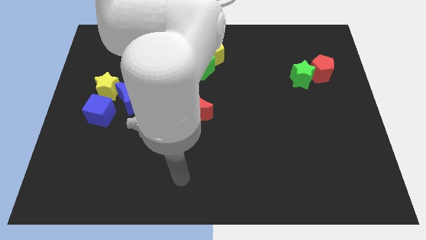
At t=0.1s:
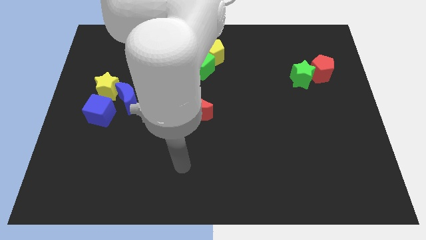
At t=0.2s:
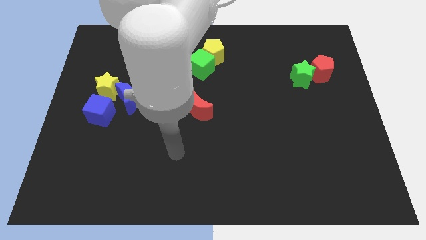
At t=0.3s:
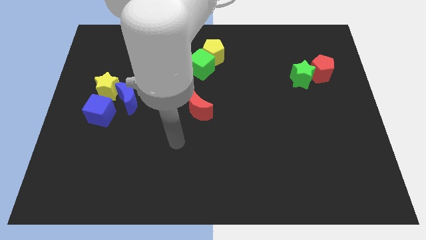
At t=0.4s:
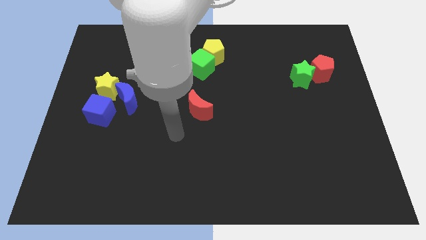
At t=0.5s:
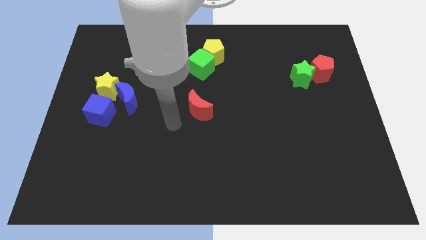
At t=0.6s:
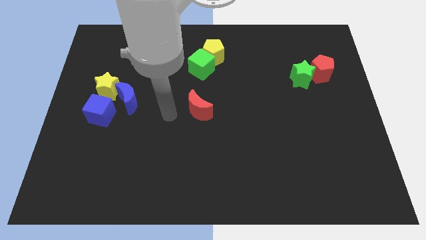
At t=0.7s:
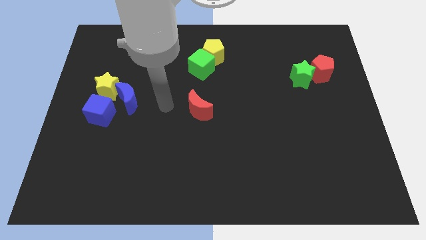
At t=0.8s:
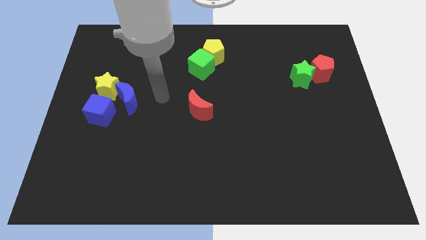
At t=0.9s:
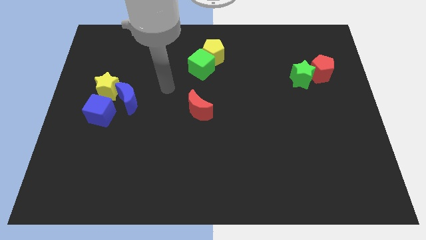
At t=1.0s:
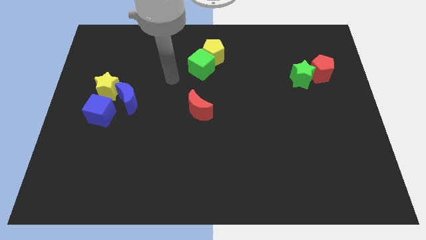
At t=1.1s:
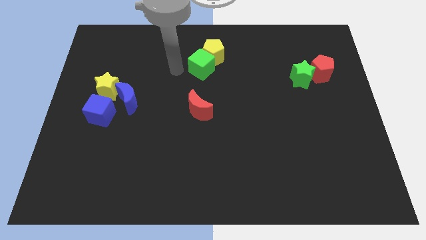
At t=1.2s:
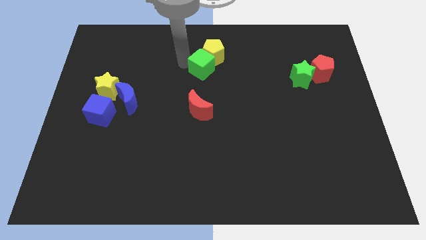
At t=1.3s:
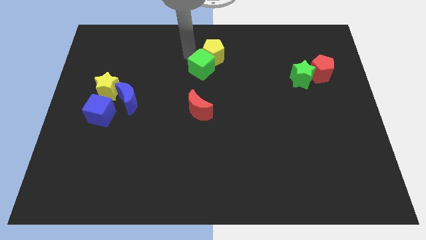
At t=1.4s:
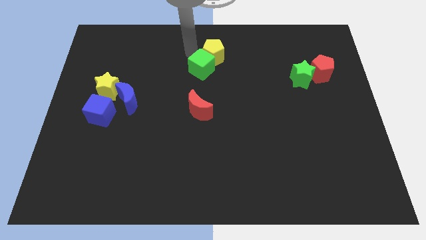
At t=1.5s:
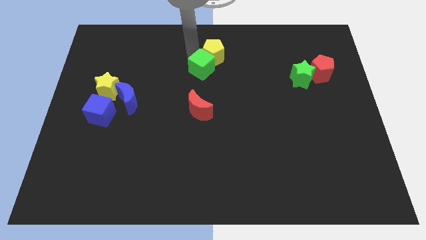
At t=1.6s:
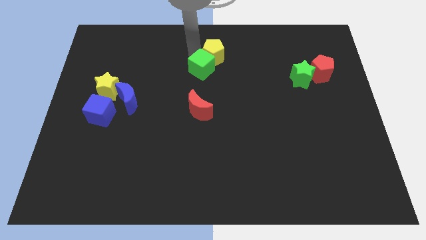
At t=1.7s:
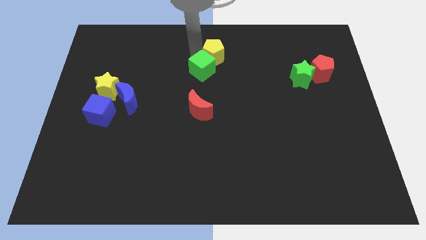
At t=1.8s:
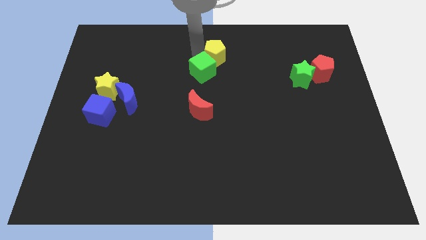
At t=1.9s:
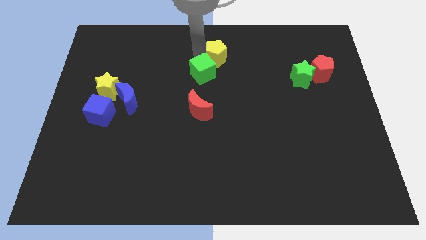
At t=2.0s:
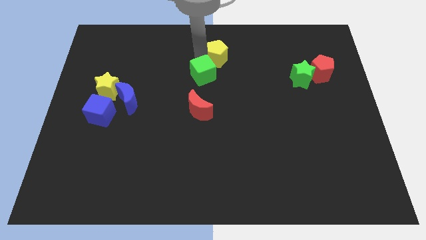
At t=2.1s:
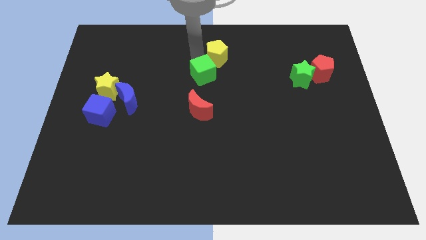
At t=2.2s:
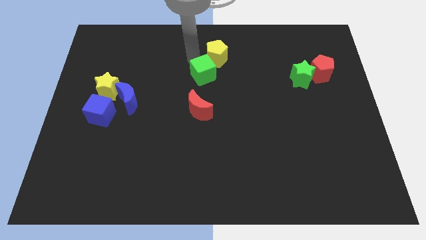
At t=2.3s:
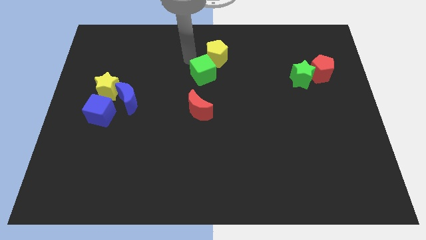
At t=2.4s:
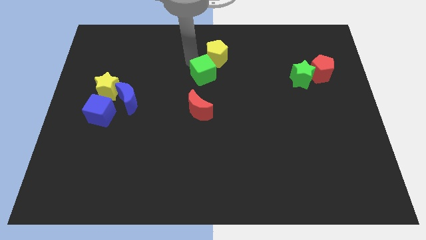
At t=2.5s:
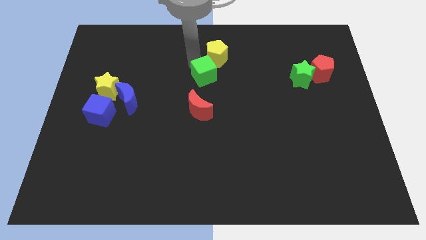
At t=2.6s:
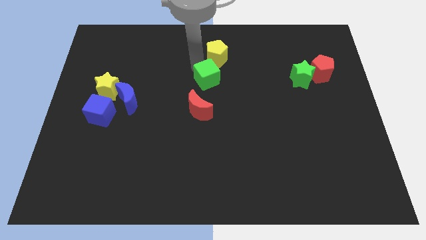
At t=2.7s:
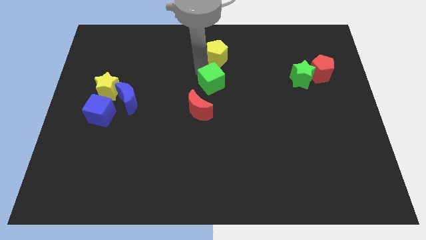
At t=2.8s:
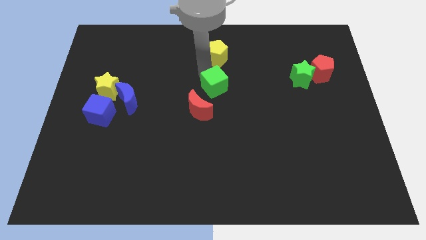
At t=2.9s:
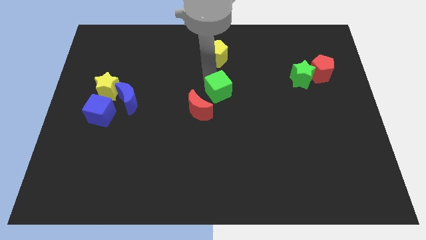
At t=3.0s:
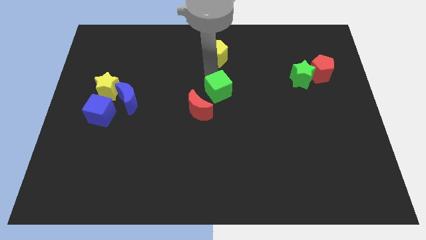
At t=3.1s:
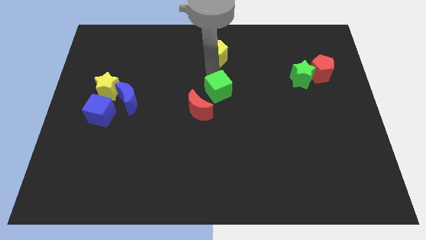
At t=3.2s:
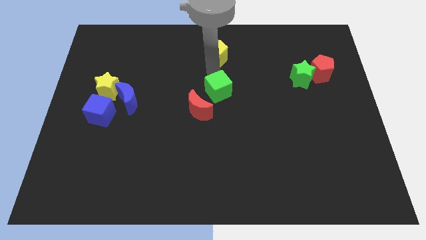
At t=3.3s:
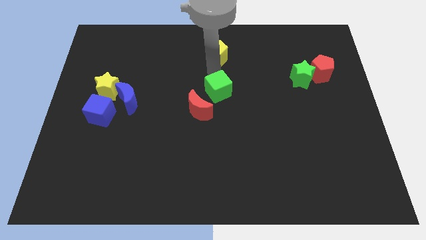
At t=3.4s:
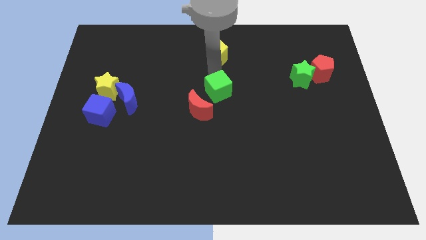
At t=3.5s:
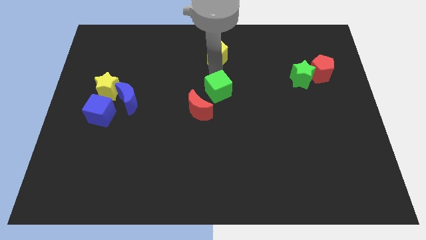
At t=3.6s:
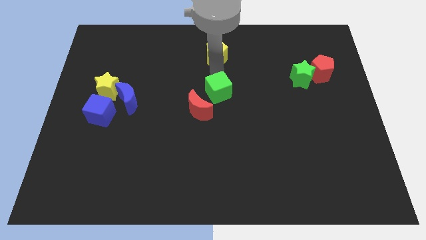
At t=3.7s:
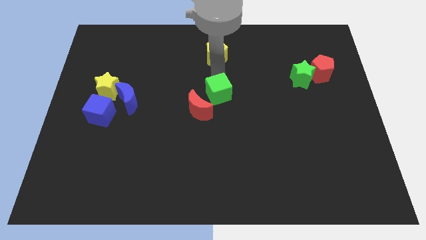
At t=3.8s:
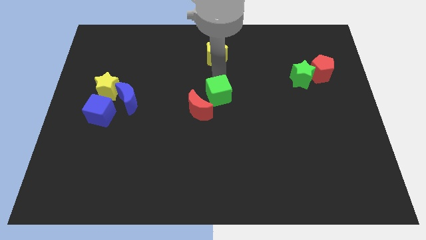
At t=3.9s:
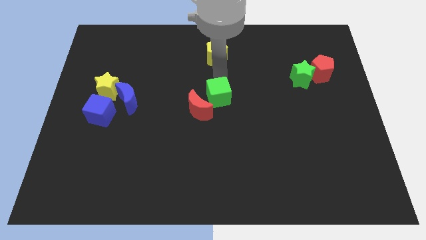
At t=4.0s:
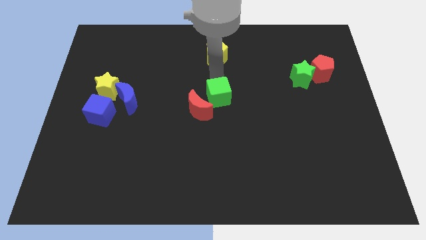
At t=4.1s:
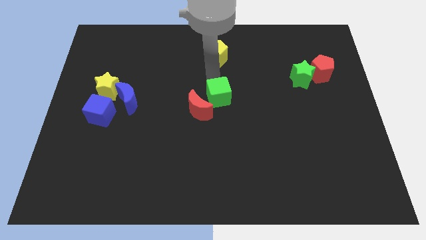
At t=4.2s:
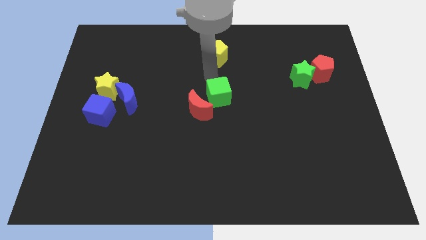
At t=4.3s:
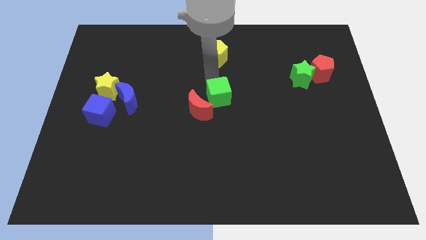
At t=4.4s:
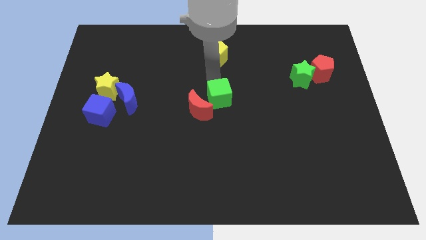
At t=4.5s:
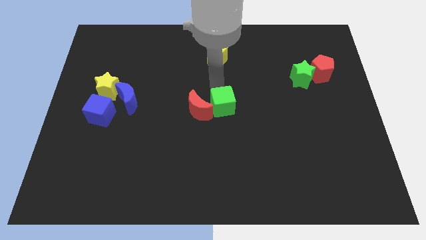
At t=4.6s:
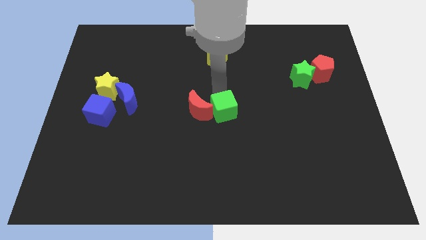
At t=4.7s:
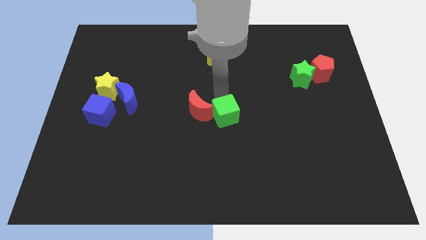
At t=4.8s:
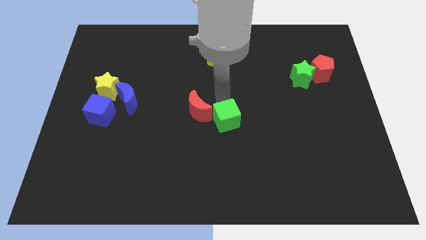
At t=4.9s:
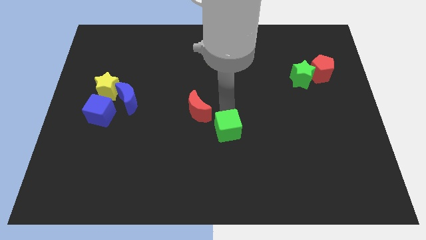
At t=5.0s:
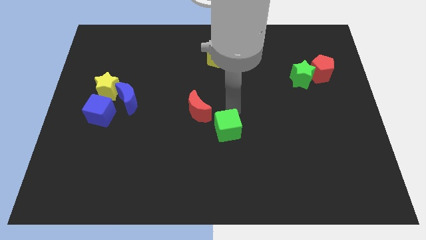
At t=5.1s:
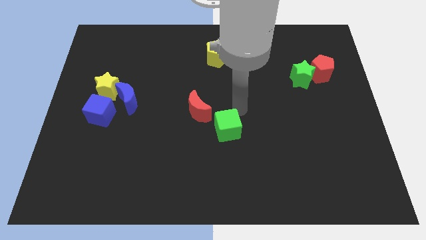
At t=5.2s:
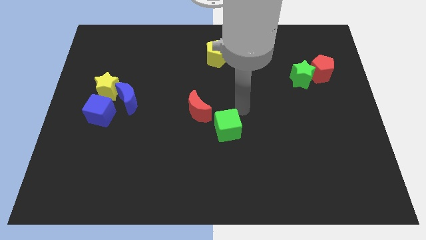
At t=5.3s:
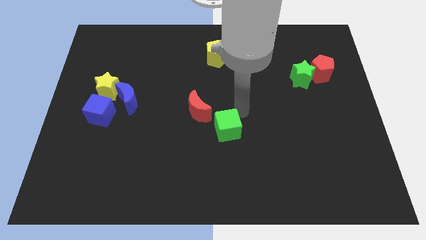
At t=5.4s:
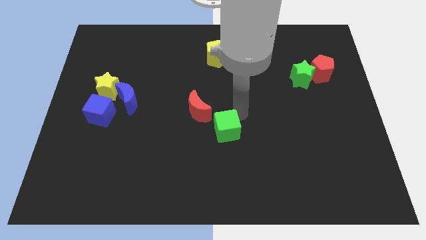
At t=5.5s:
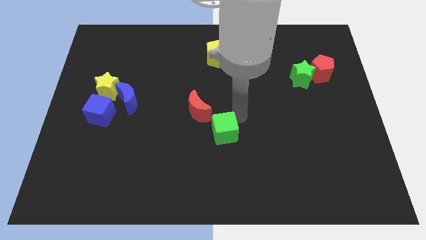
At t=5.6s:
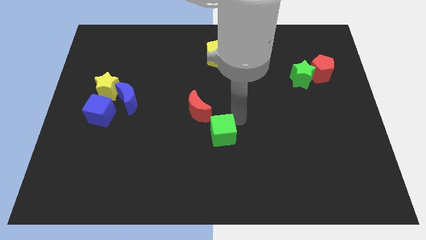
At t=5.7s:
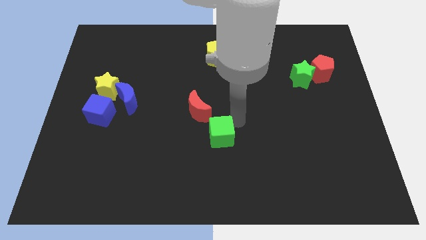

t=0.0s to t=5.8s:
slide the green cube downwards

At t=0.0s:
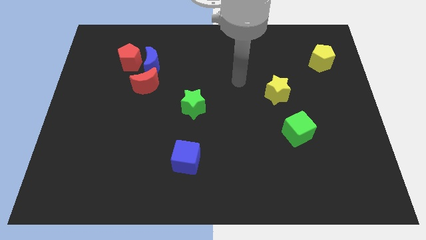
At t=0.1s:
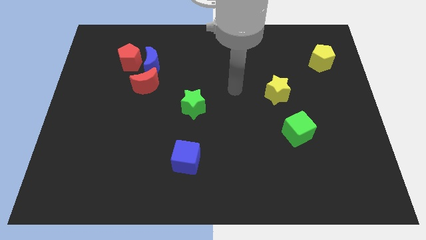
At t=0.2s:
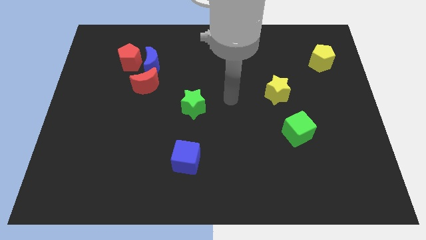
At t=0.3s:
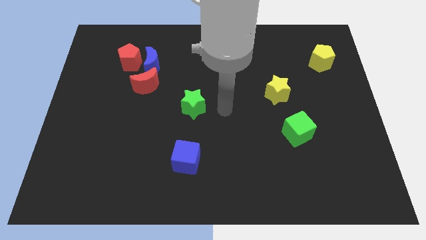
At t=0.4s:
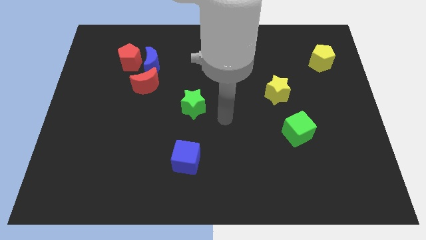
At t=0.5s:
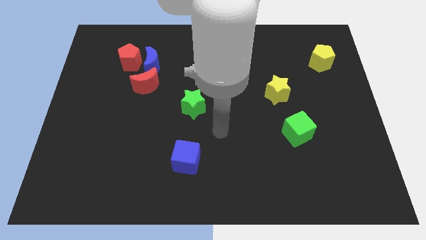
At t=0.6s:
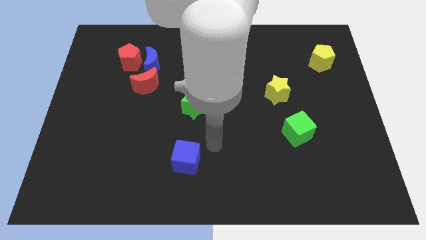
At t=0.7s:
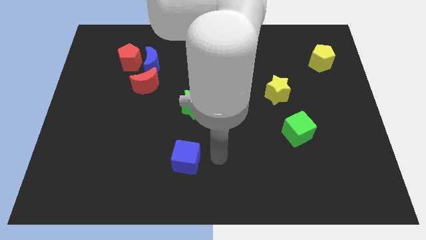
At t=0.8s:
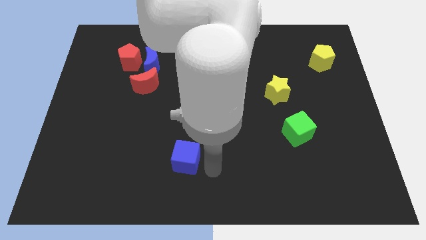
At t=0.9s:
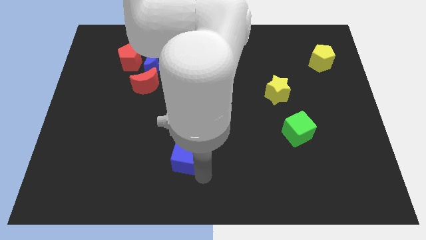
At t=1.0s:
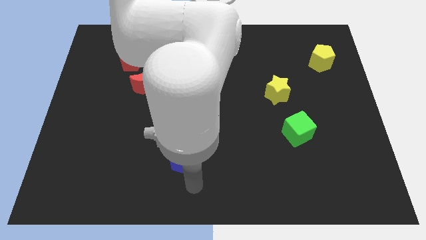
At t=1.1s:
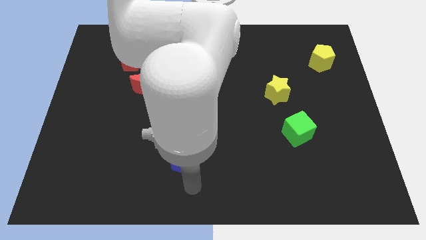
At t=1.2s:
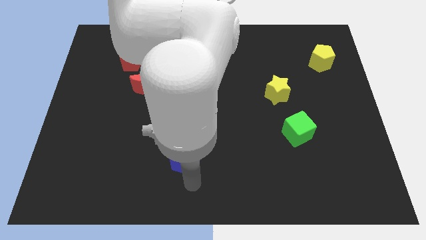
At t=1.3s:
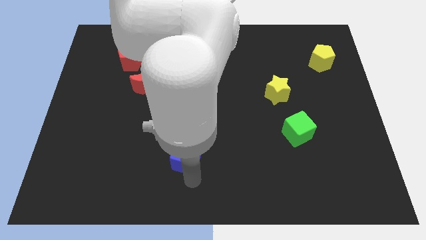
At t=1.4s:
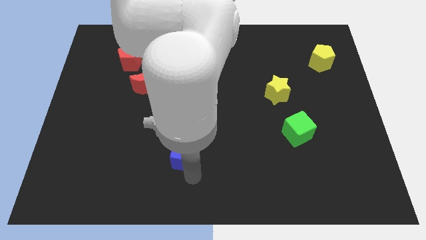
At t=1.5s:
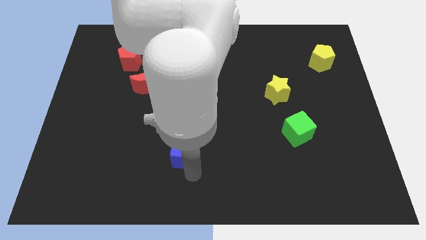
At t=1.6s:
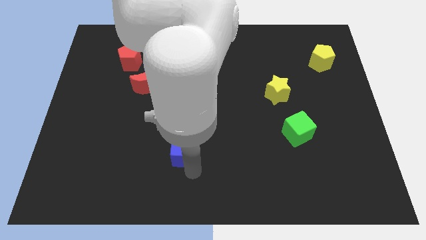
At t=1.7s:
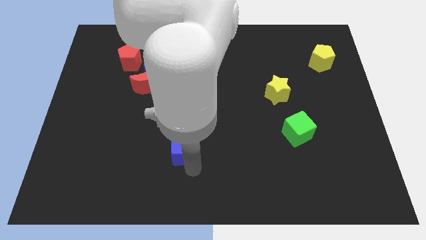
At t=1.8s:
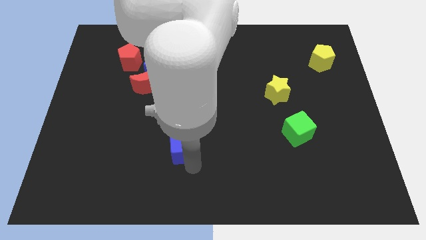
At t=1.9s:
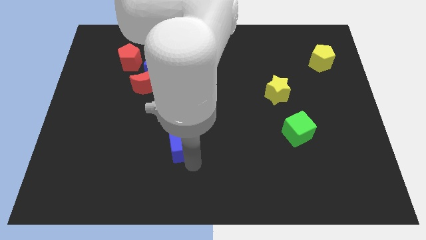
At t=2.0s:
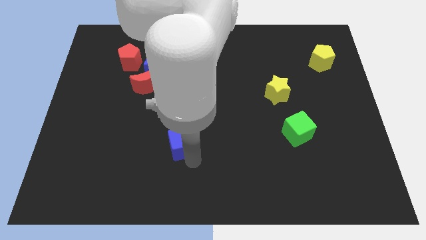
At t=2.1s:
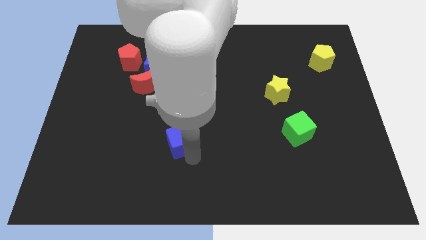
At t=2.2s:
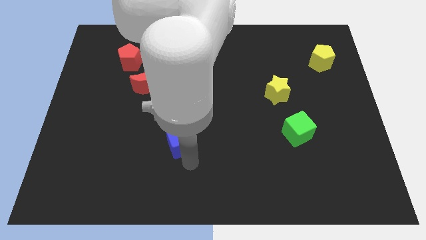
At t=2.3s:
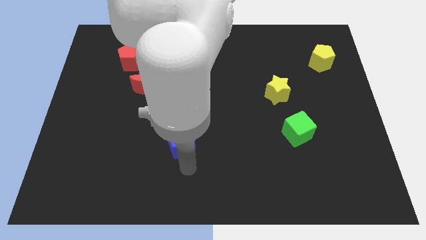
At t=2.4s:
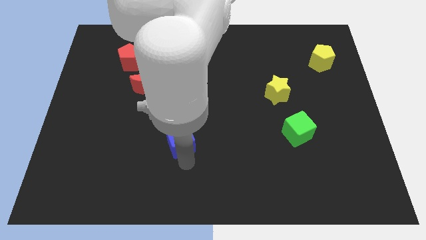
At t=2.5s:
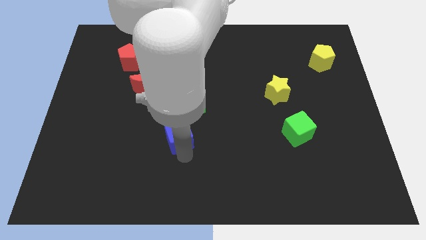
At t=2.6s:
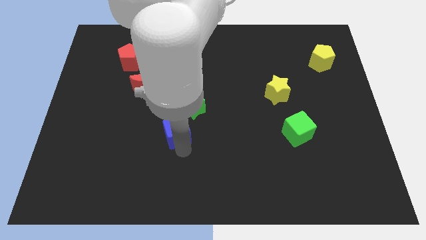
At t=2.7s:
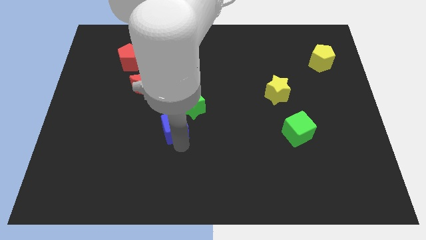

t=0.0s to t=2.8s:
slightly push the blue cube upwards
